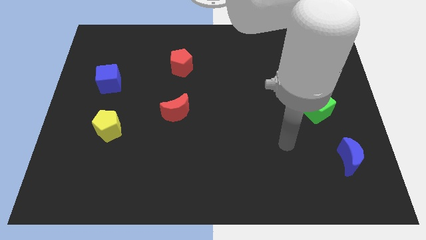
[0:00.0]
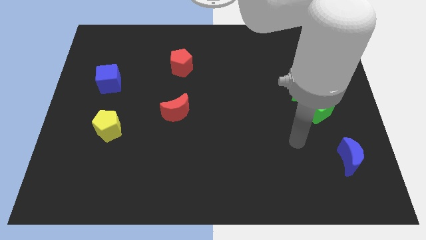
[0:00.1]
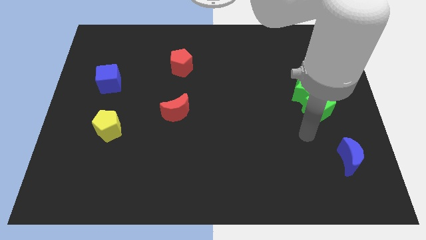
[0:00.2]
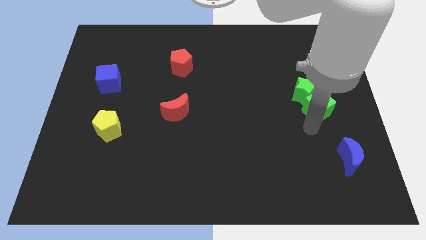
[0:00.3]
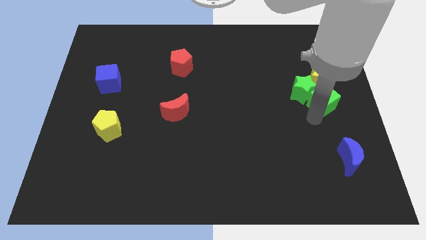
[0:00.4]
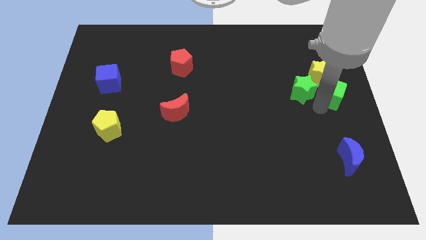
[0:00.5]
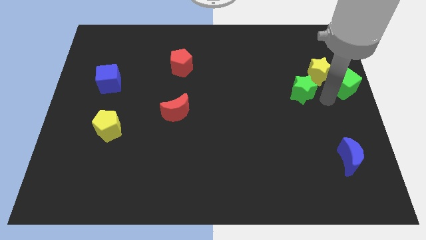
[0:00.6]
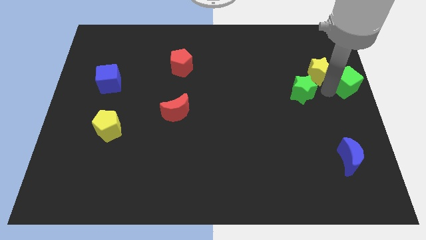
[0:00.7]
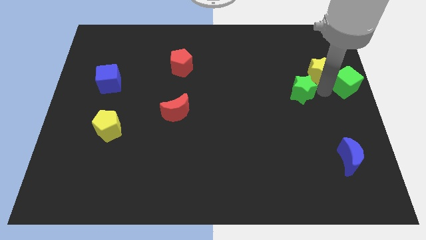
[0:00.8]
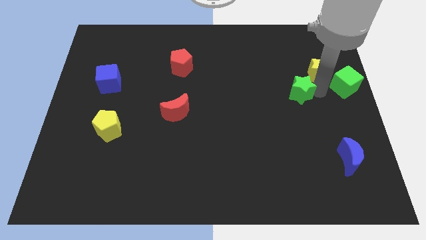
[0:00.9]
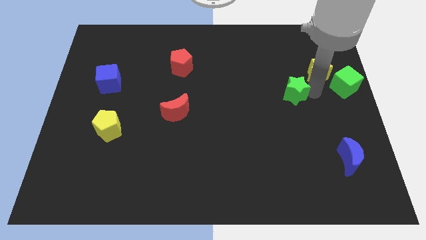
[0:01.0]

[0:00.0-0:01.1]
separate the green star from the green cube and yellow star

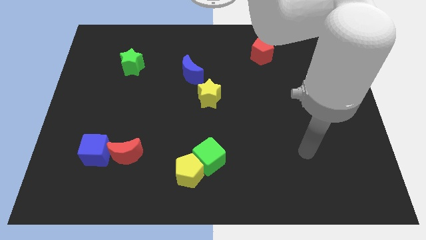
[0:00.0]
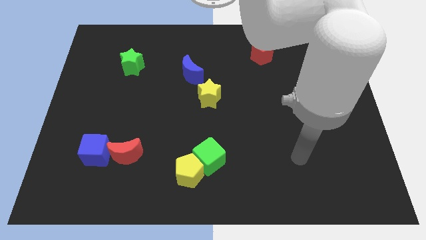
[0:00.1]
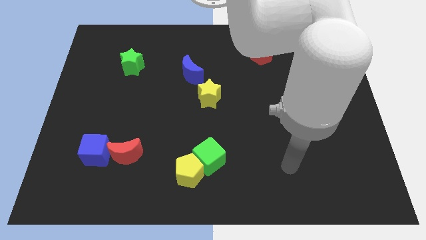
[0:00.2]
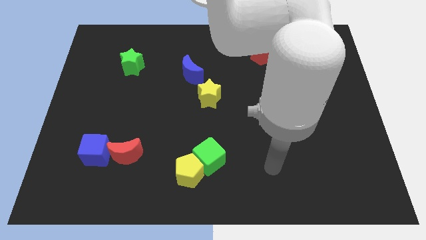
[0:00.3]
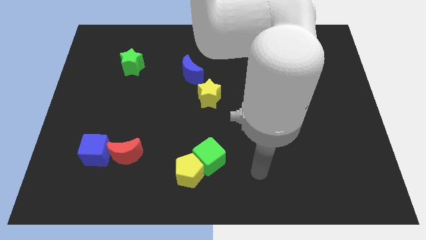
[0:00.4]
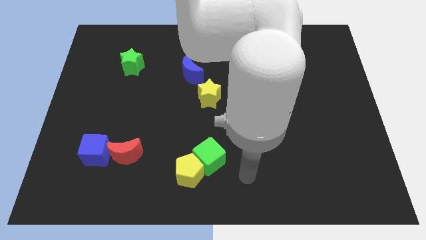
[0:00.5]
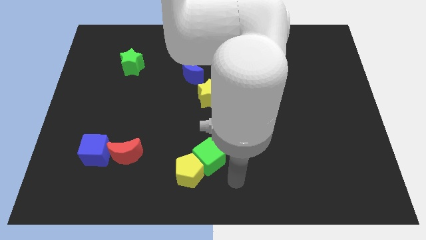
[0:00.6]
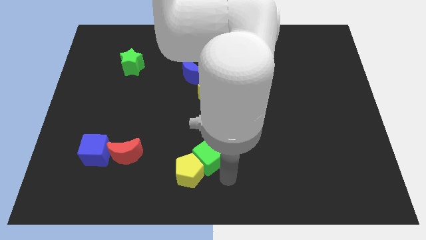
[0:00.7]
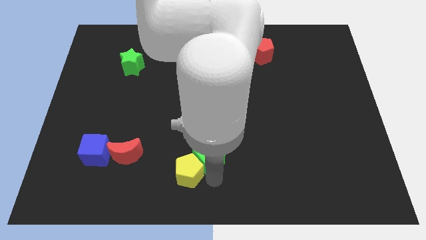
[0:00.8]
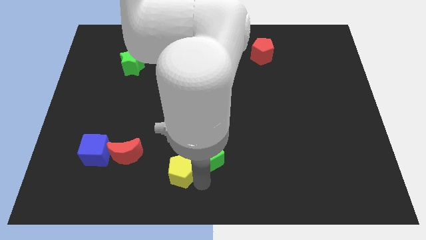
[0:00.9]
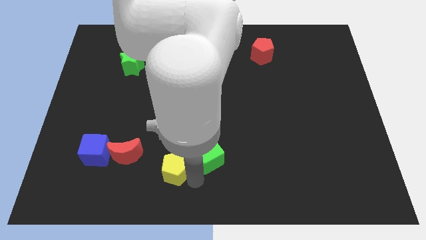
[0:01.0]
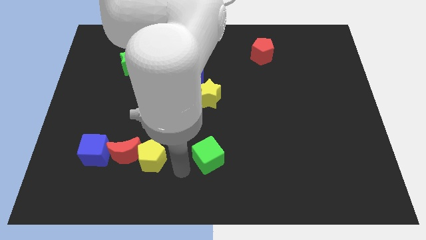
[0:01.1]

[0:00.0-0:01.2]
pull the green cube apart from the yellow pentagon

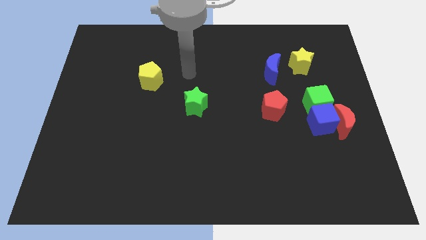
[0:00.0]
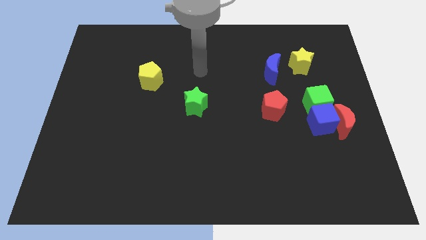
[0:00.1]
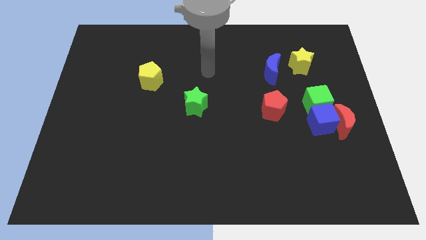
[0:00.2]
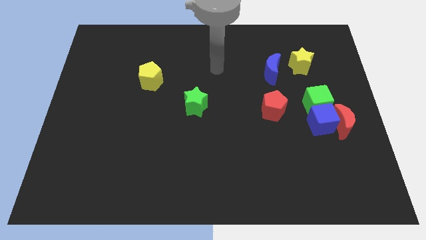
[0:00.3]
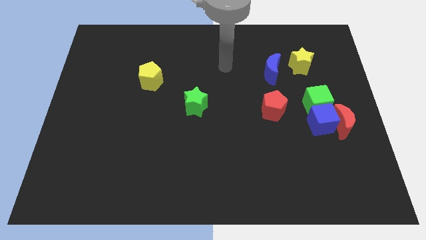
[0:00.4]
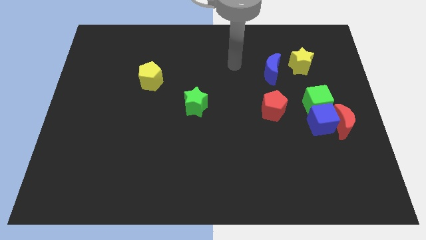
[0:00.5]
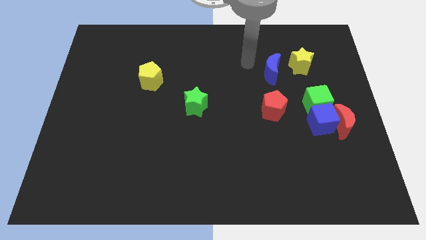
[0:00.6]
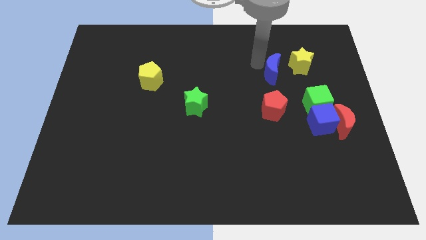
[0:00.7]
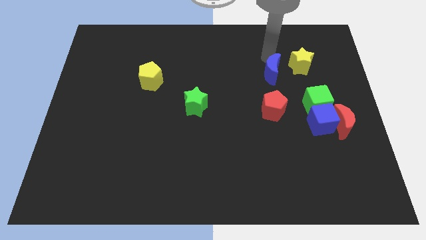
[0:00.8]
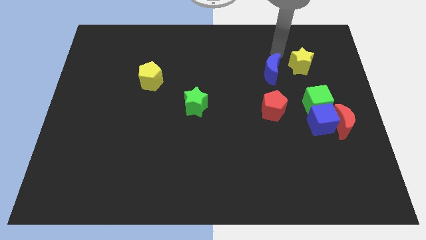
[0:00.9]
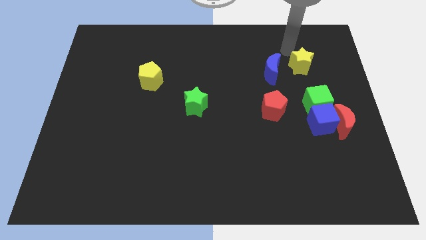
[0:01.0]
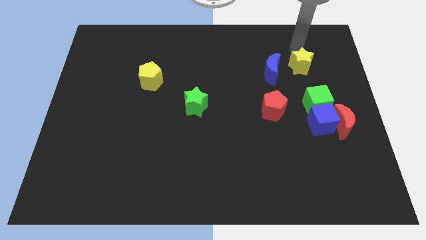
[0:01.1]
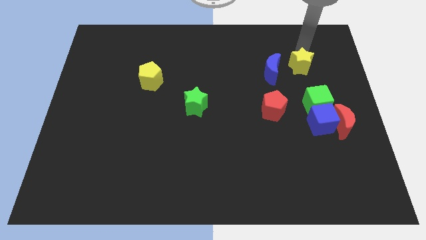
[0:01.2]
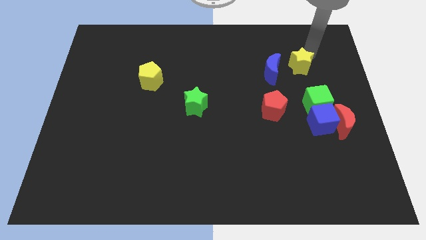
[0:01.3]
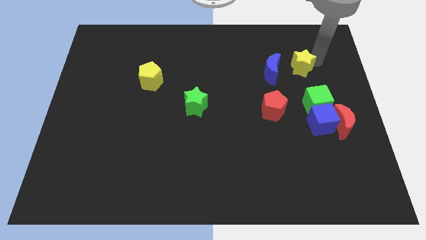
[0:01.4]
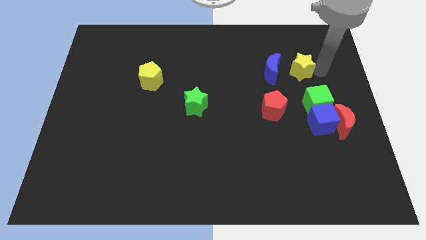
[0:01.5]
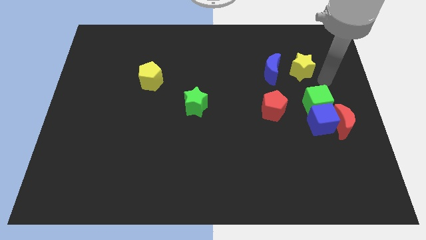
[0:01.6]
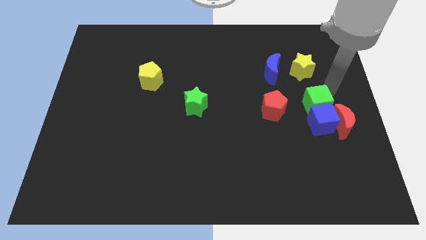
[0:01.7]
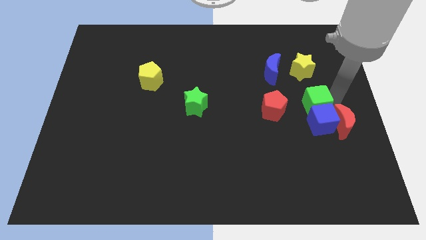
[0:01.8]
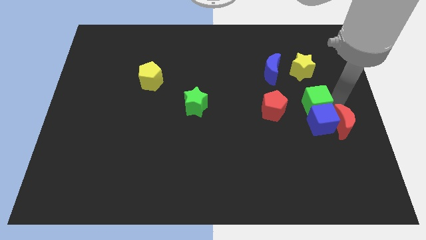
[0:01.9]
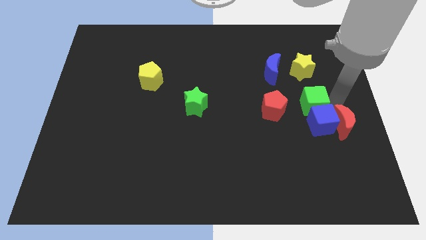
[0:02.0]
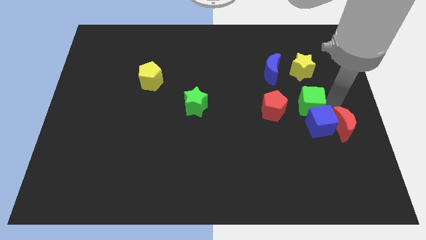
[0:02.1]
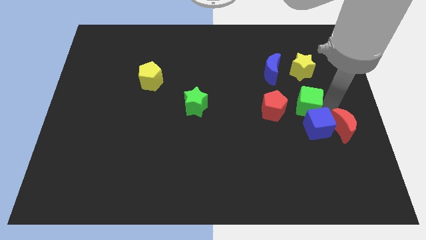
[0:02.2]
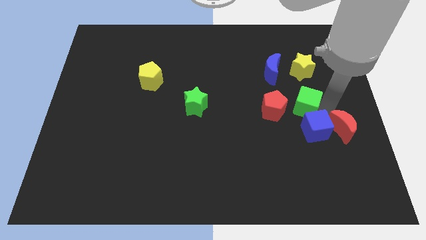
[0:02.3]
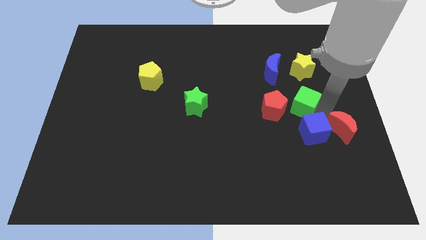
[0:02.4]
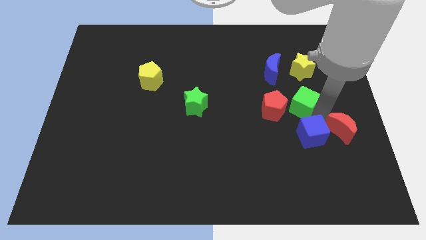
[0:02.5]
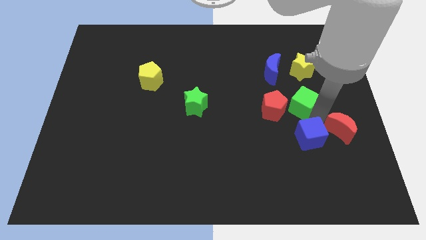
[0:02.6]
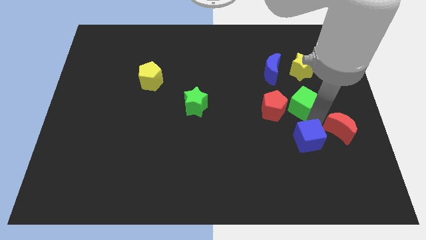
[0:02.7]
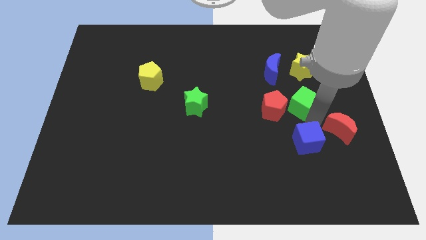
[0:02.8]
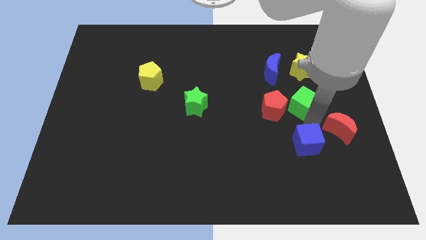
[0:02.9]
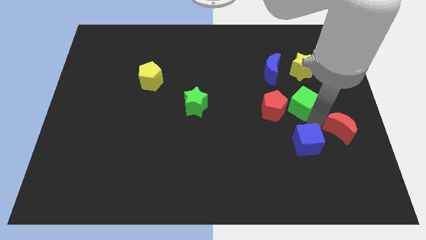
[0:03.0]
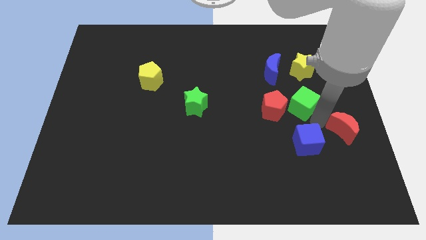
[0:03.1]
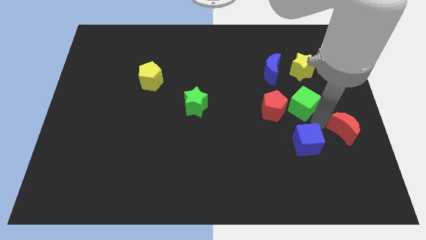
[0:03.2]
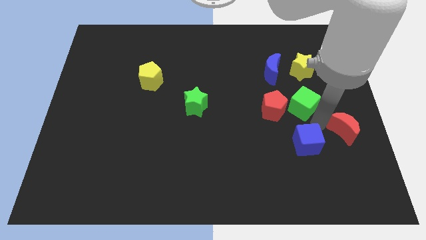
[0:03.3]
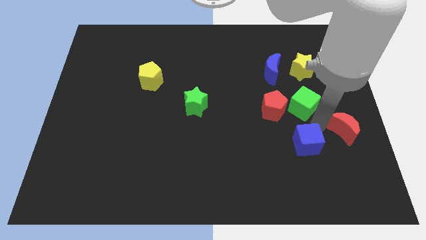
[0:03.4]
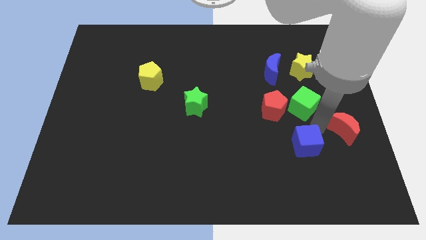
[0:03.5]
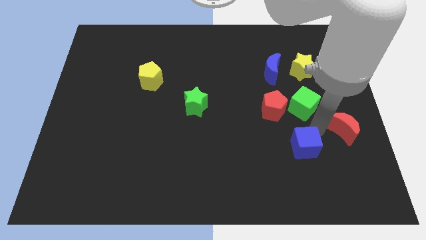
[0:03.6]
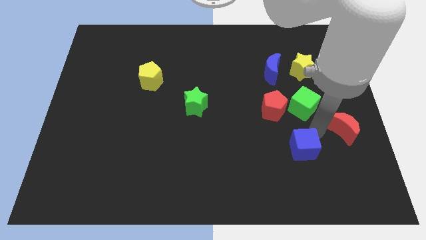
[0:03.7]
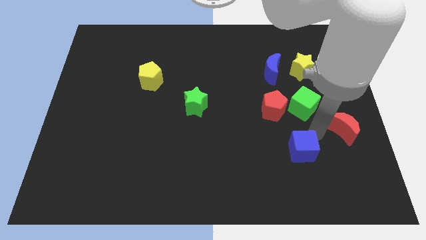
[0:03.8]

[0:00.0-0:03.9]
pull the blue cube apart from the red moon and green cube

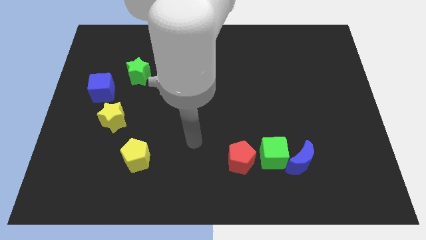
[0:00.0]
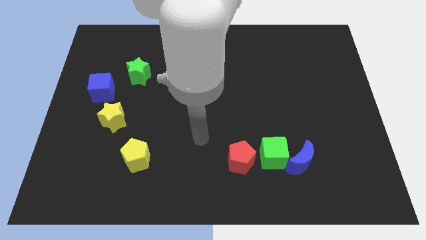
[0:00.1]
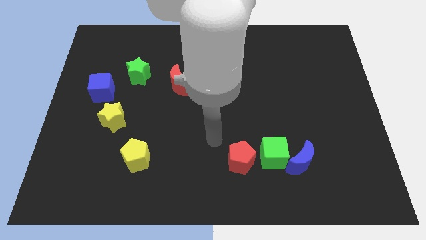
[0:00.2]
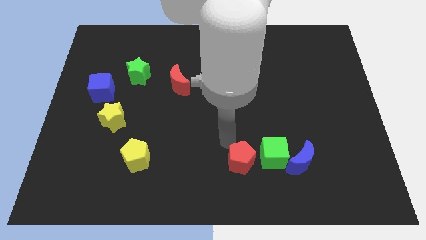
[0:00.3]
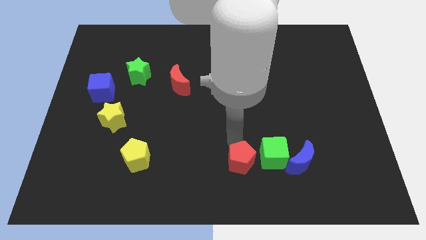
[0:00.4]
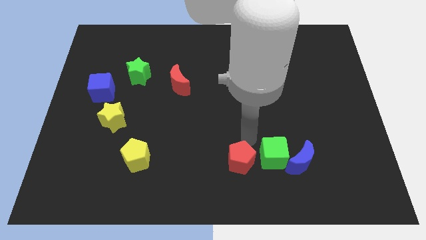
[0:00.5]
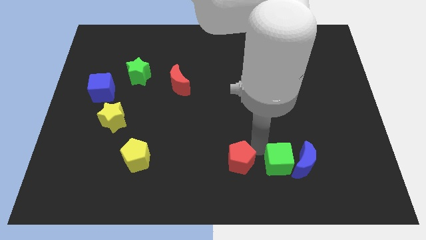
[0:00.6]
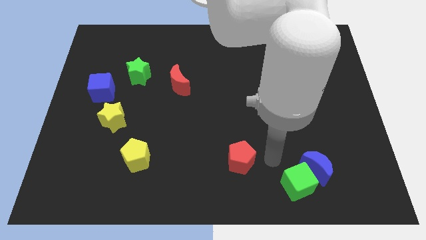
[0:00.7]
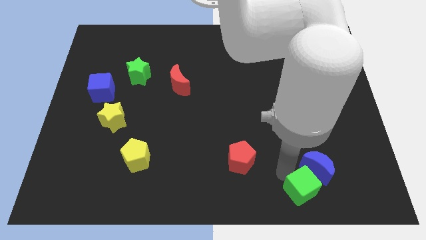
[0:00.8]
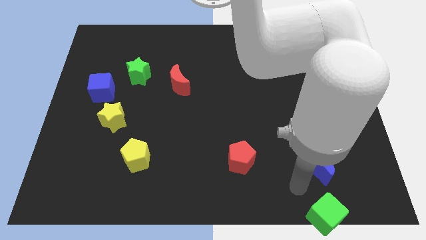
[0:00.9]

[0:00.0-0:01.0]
move the blue moon away from the green cube

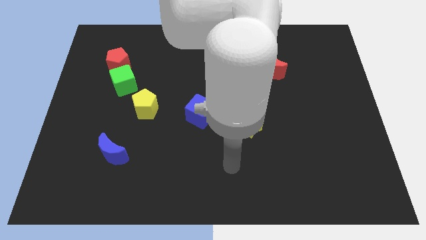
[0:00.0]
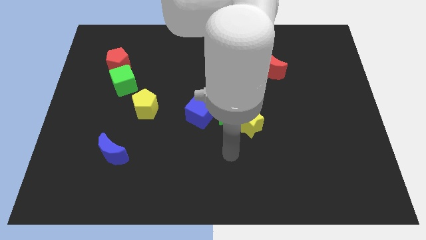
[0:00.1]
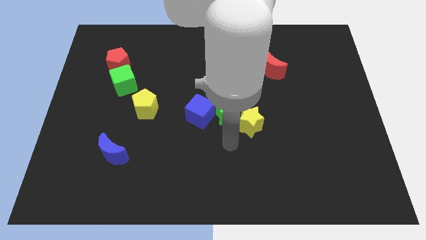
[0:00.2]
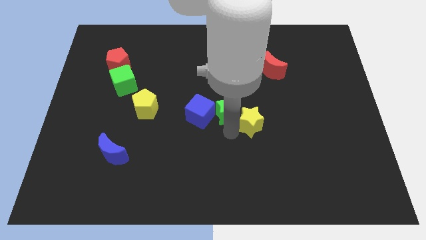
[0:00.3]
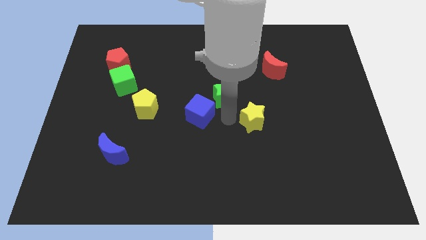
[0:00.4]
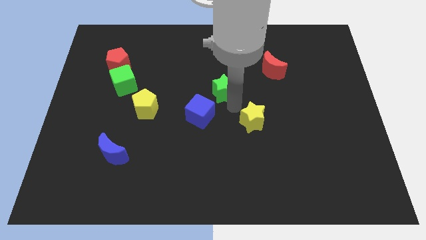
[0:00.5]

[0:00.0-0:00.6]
separate the yellow star from the green star

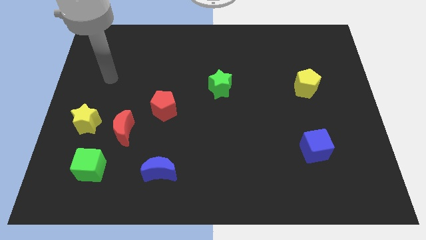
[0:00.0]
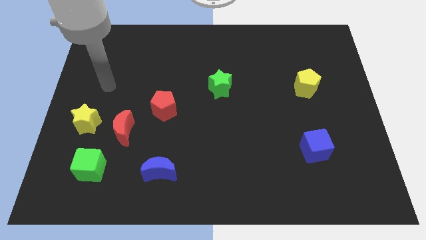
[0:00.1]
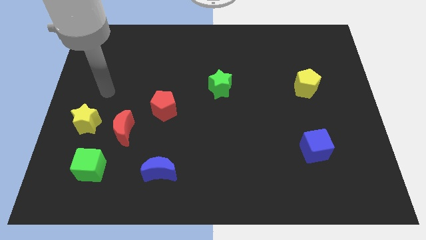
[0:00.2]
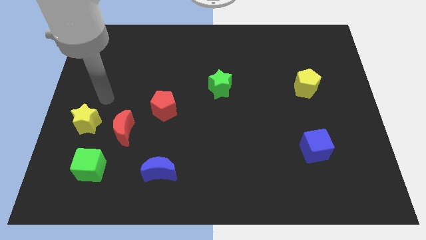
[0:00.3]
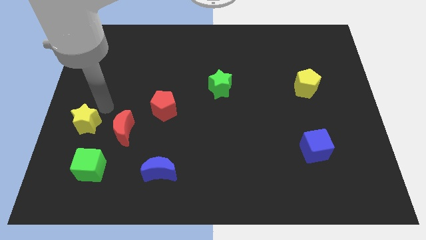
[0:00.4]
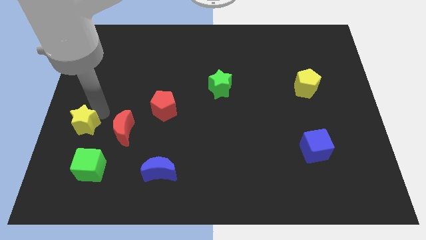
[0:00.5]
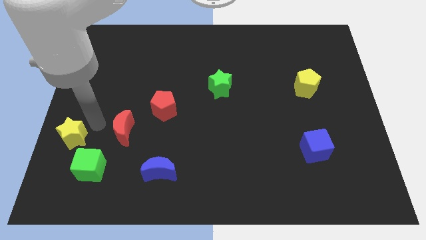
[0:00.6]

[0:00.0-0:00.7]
pull the red moon apart from the yellow star

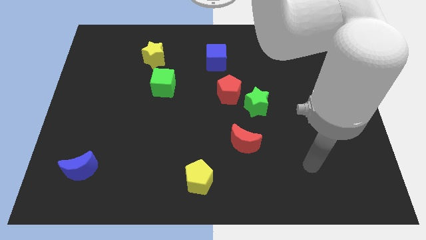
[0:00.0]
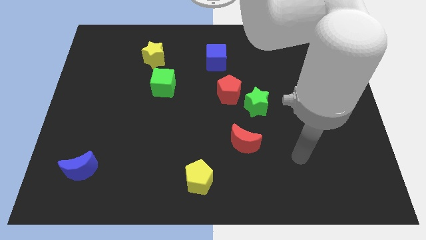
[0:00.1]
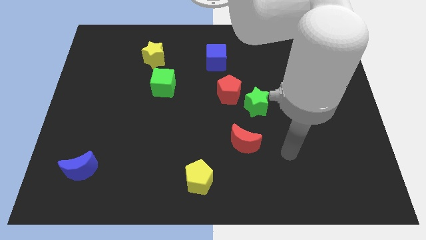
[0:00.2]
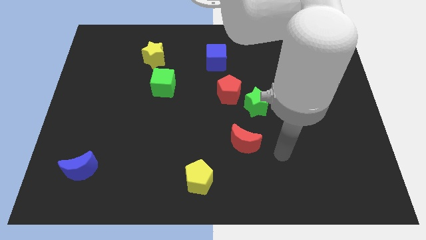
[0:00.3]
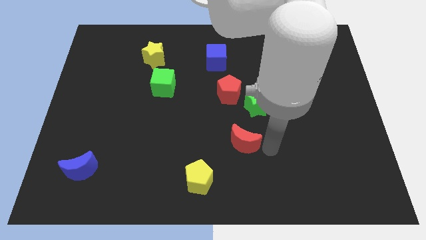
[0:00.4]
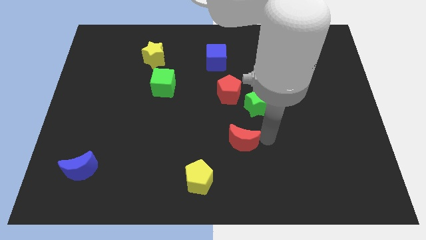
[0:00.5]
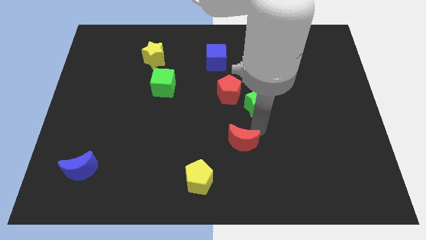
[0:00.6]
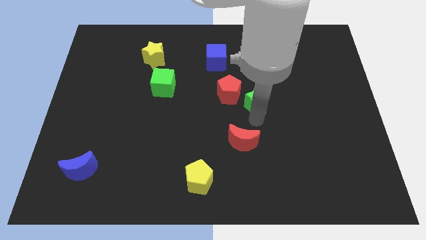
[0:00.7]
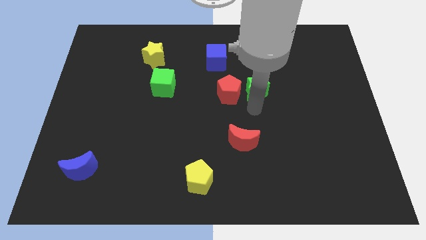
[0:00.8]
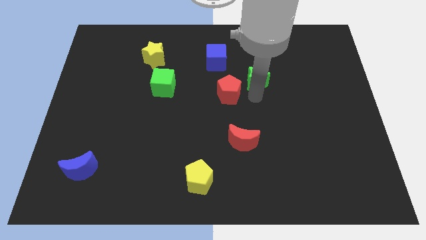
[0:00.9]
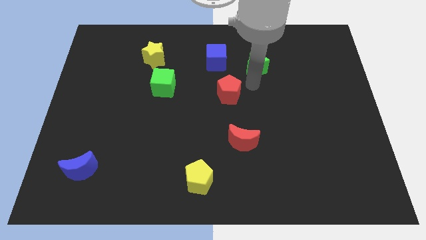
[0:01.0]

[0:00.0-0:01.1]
pull the red pentagon apart from the green star
